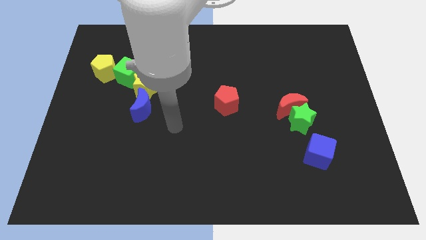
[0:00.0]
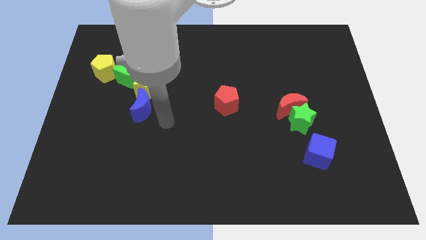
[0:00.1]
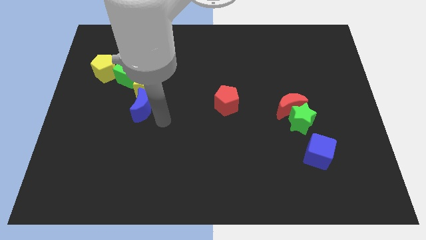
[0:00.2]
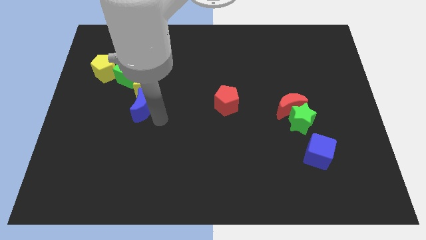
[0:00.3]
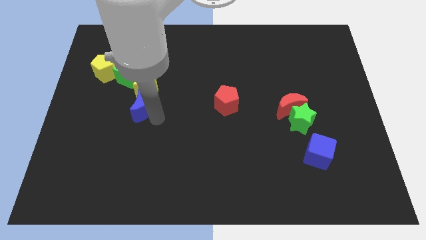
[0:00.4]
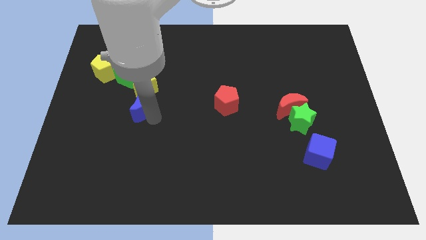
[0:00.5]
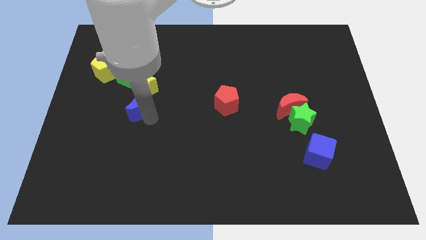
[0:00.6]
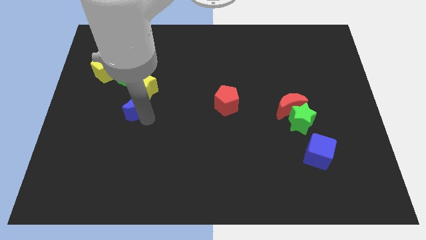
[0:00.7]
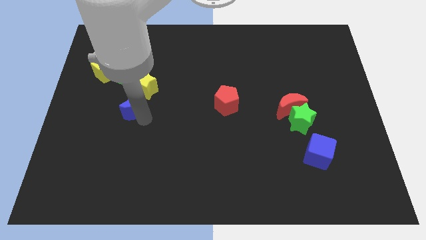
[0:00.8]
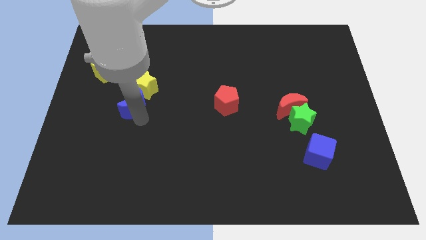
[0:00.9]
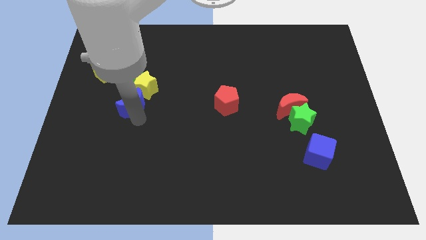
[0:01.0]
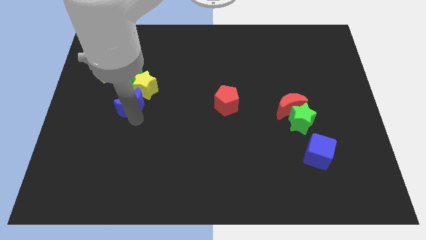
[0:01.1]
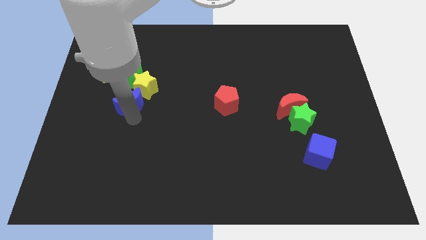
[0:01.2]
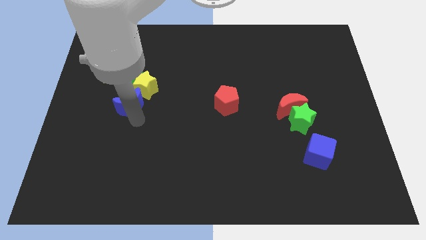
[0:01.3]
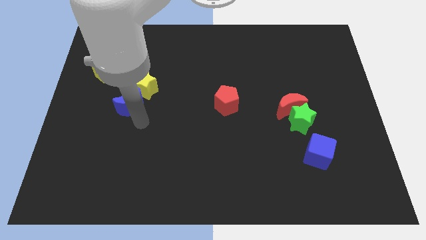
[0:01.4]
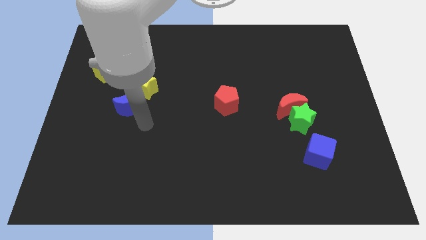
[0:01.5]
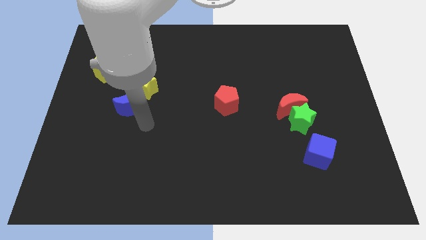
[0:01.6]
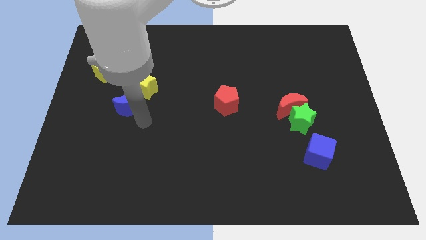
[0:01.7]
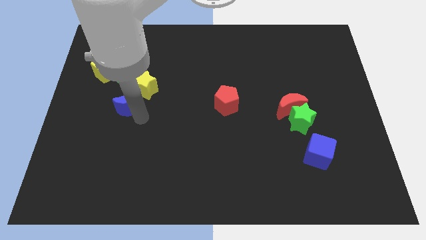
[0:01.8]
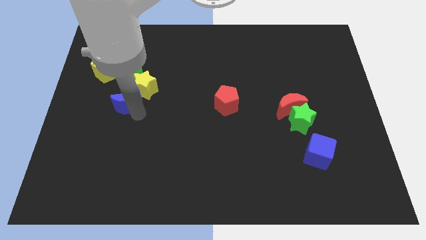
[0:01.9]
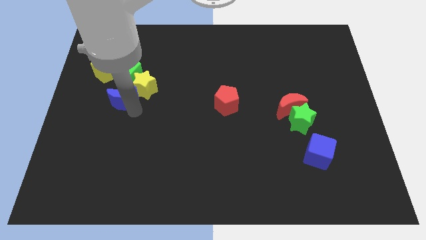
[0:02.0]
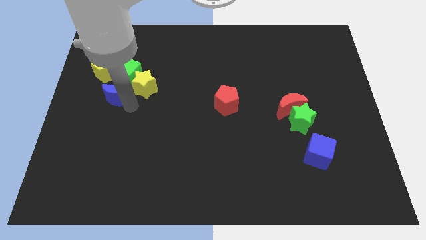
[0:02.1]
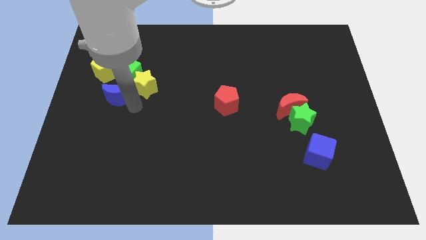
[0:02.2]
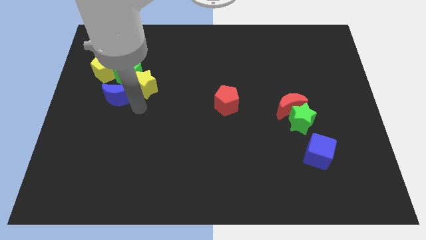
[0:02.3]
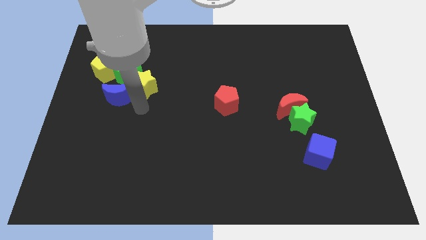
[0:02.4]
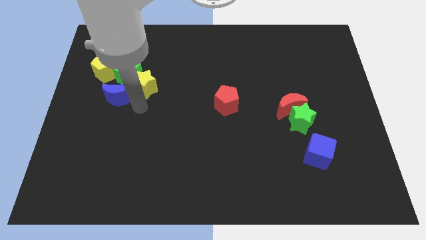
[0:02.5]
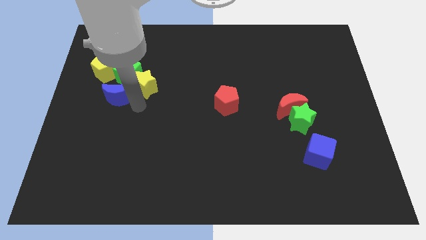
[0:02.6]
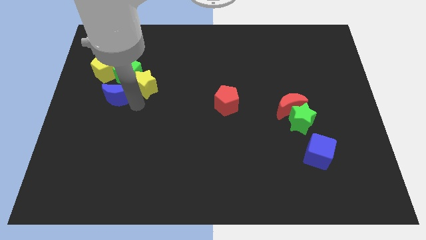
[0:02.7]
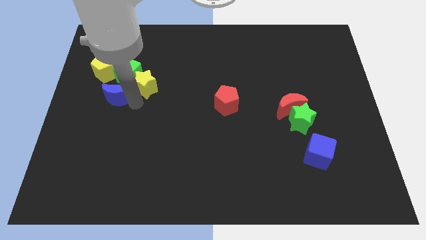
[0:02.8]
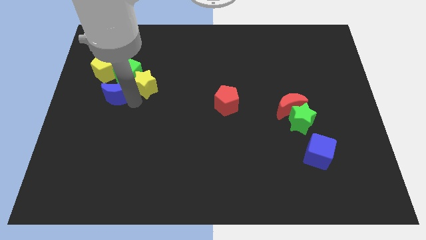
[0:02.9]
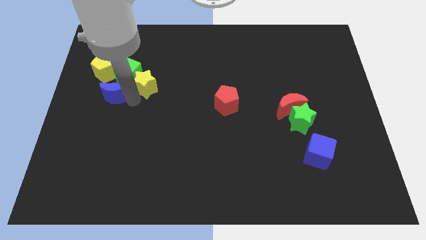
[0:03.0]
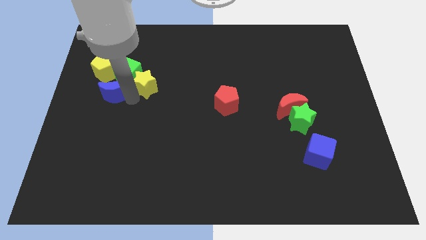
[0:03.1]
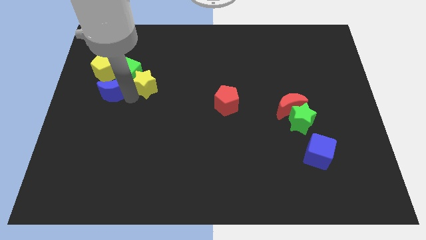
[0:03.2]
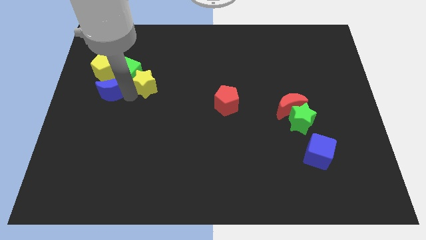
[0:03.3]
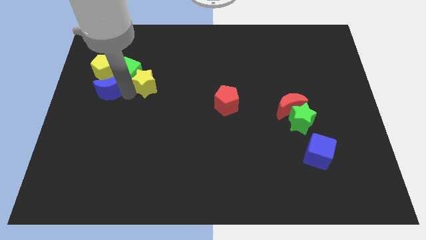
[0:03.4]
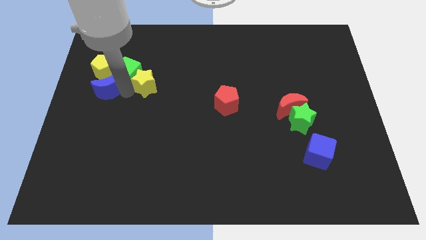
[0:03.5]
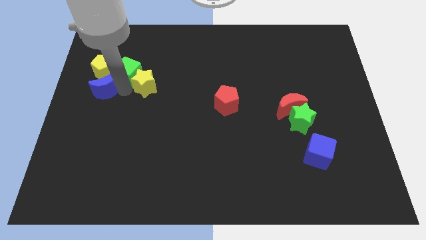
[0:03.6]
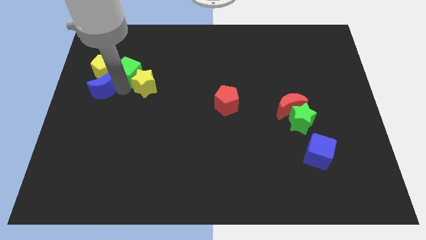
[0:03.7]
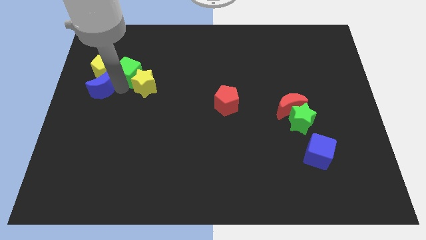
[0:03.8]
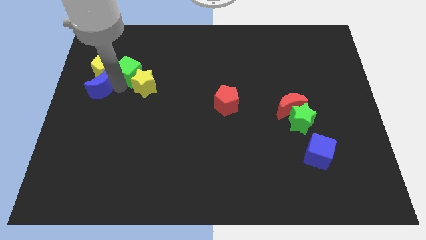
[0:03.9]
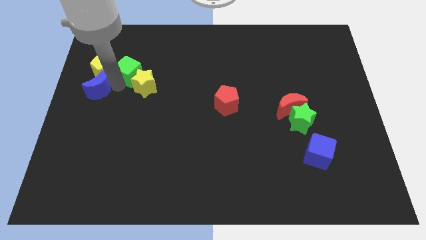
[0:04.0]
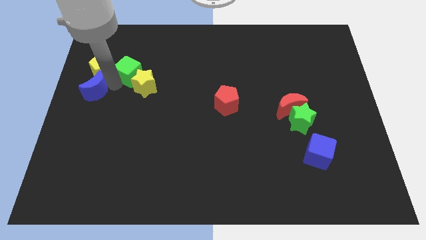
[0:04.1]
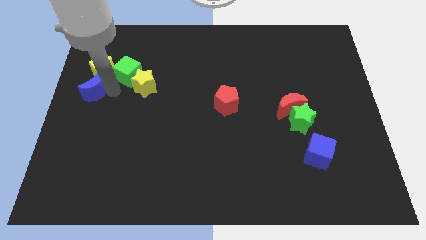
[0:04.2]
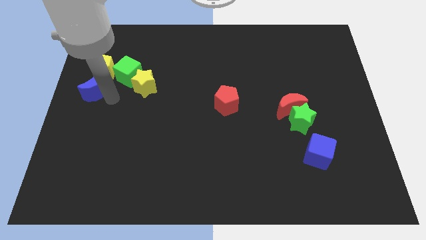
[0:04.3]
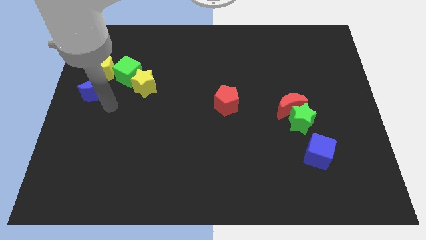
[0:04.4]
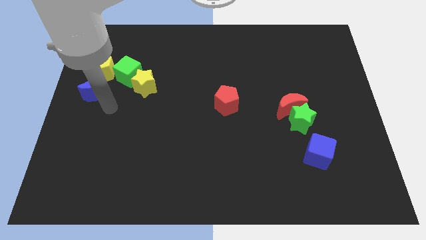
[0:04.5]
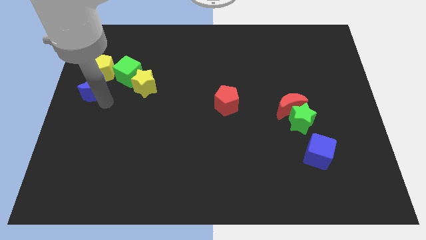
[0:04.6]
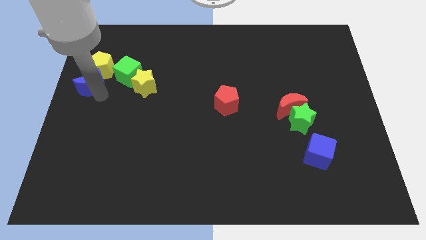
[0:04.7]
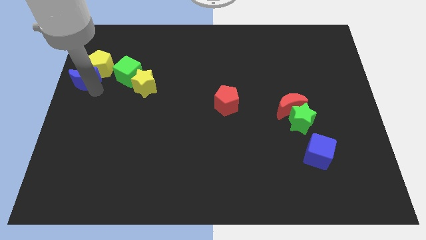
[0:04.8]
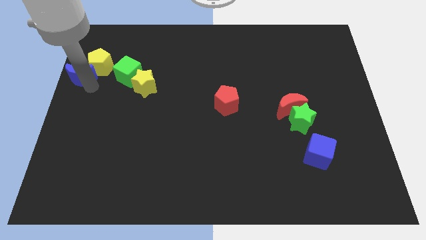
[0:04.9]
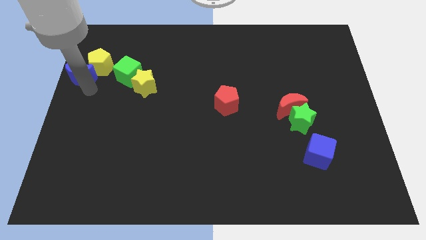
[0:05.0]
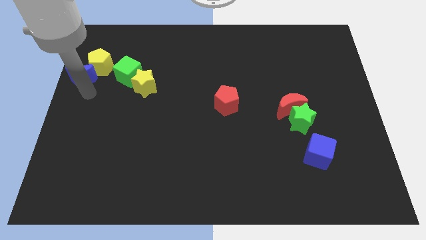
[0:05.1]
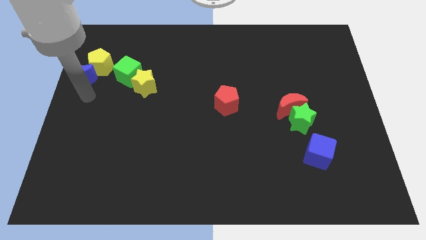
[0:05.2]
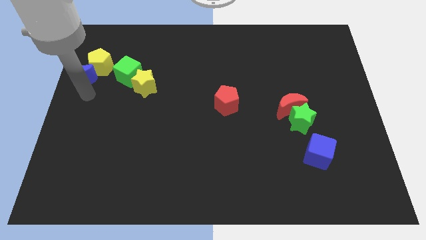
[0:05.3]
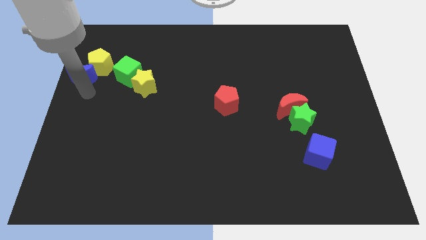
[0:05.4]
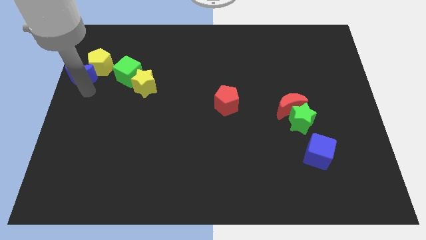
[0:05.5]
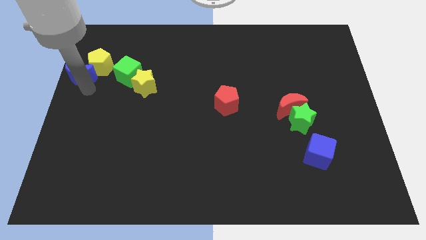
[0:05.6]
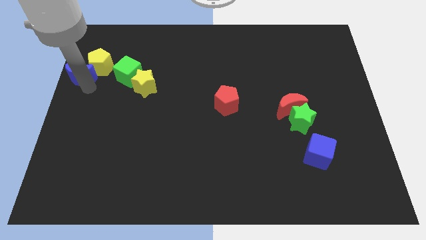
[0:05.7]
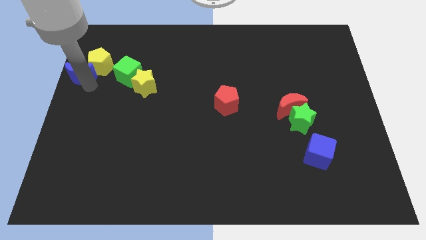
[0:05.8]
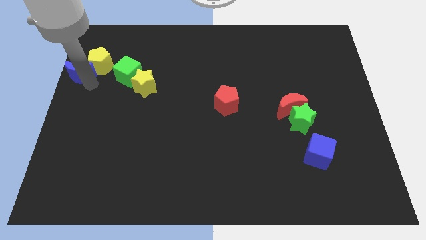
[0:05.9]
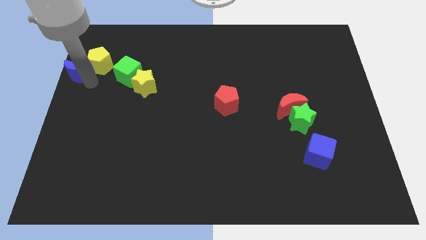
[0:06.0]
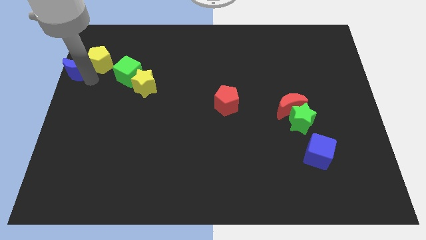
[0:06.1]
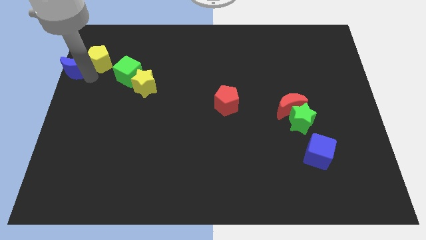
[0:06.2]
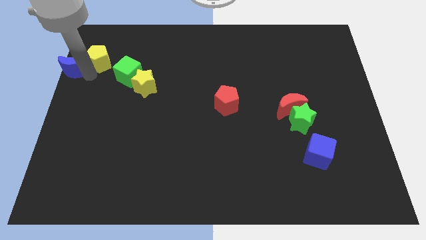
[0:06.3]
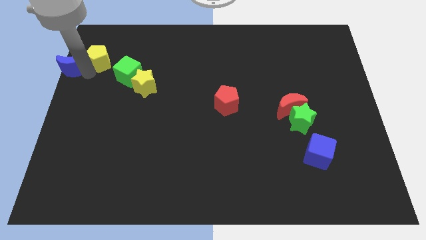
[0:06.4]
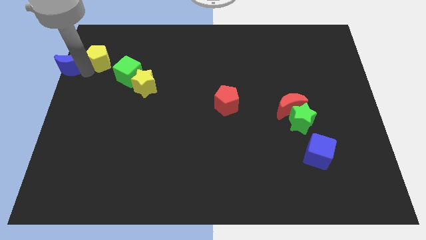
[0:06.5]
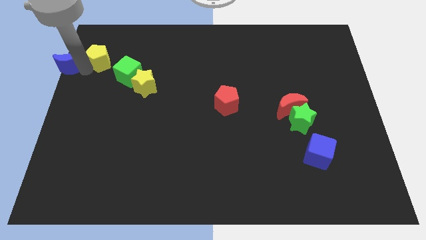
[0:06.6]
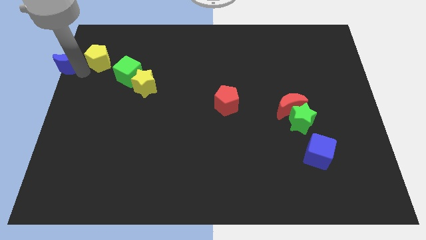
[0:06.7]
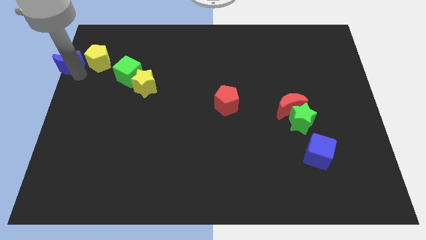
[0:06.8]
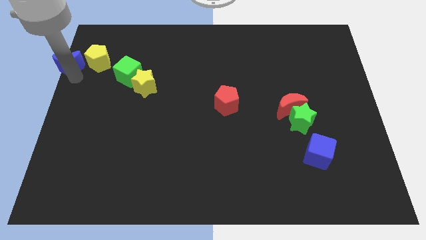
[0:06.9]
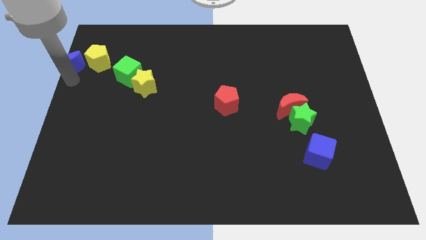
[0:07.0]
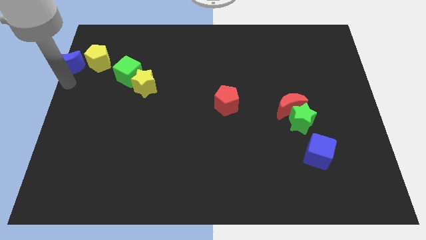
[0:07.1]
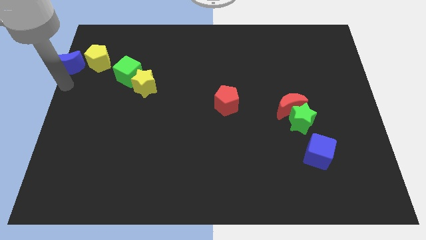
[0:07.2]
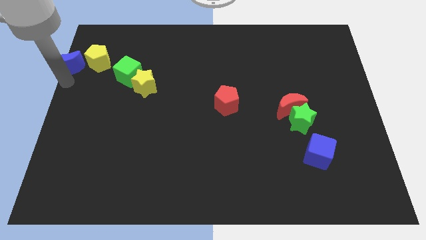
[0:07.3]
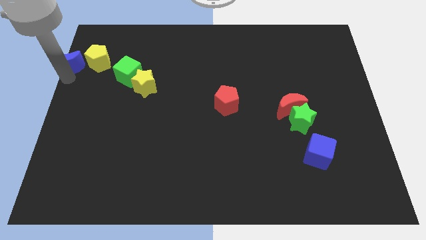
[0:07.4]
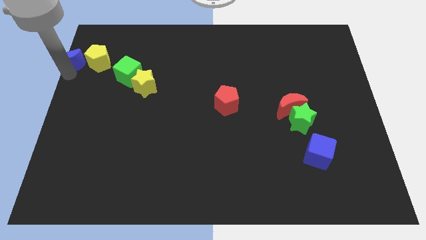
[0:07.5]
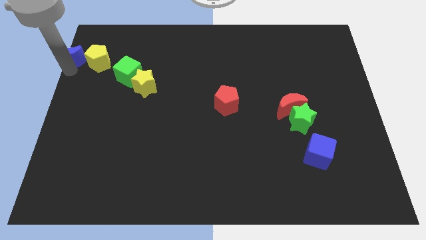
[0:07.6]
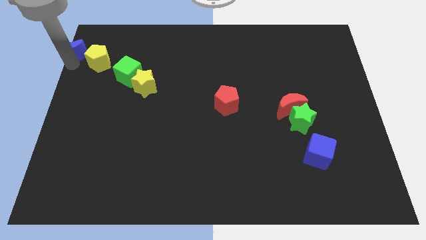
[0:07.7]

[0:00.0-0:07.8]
slide the blue moon to the top left corner
